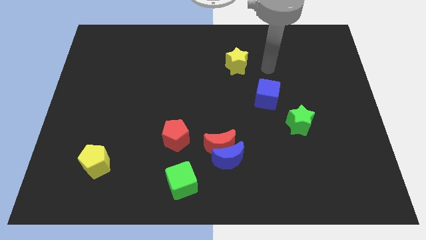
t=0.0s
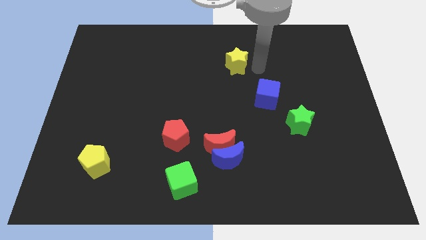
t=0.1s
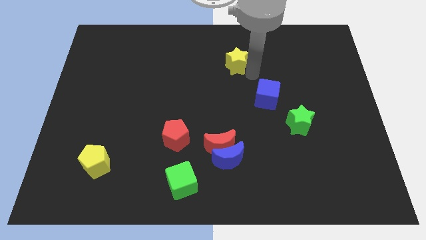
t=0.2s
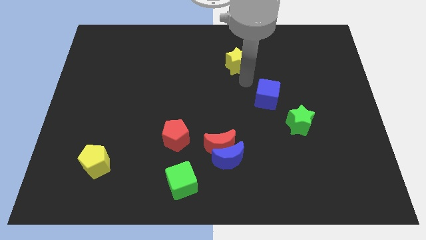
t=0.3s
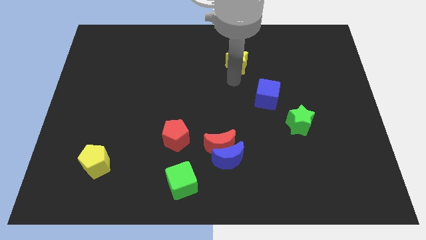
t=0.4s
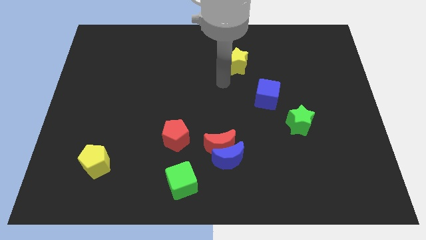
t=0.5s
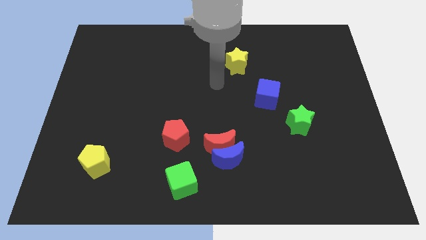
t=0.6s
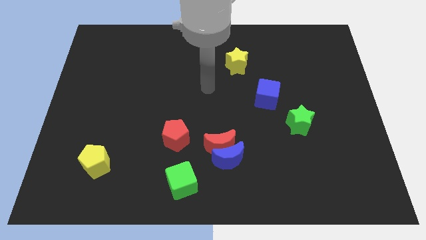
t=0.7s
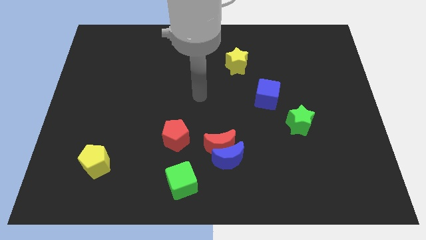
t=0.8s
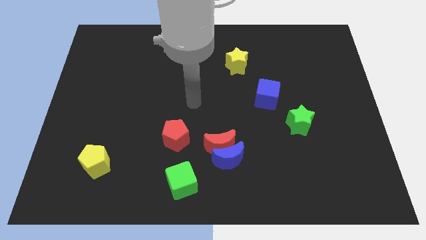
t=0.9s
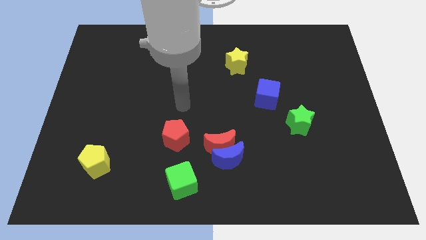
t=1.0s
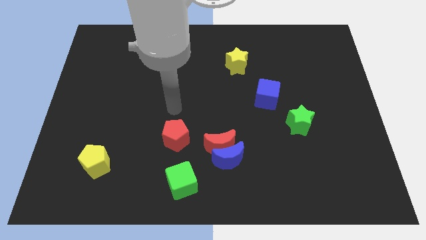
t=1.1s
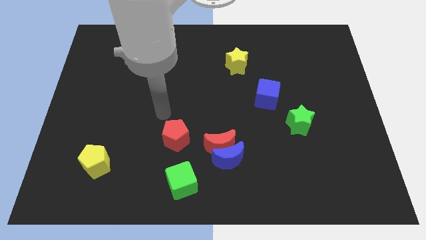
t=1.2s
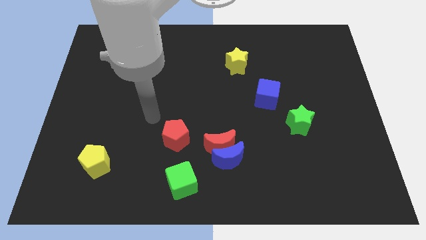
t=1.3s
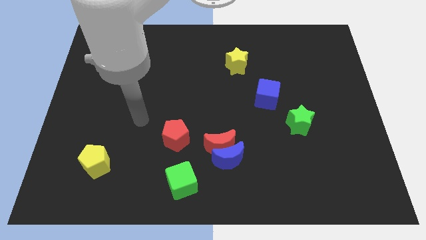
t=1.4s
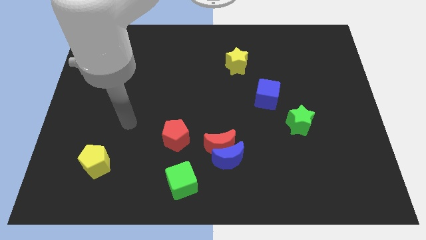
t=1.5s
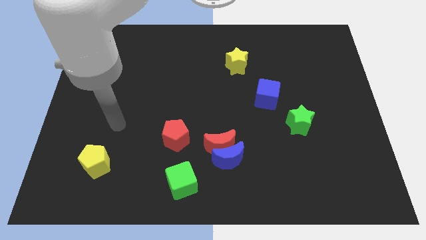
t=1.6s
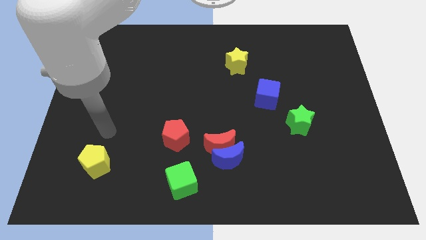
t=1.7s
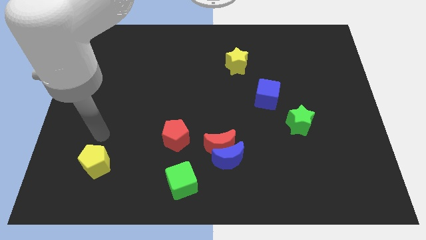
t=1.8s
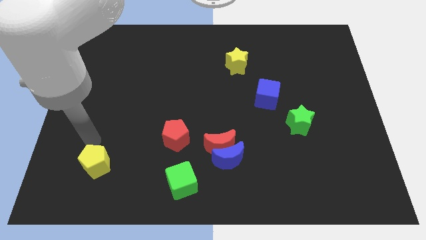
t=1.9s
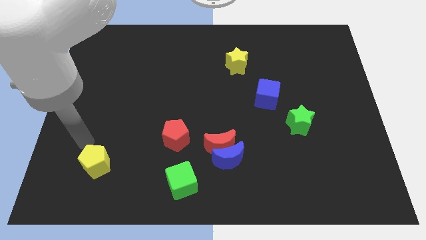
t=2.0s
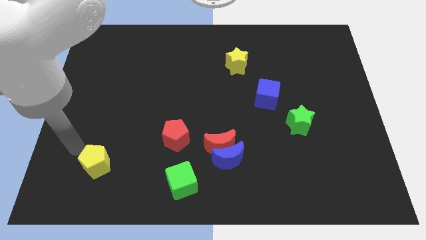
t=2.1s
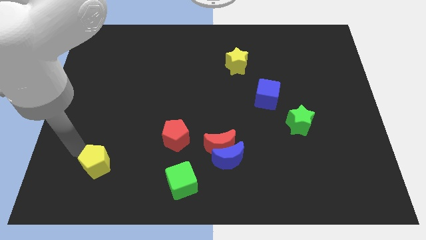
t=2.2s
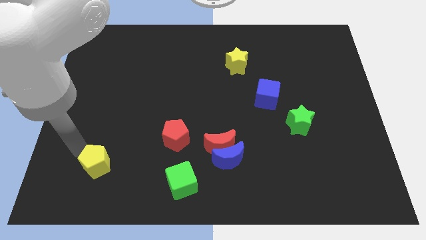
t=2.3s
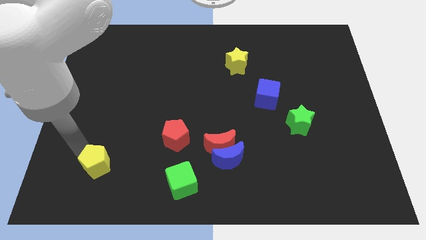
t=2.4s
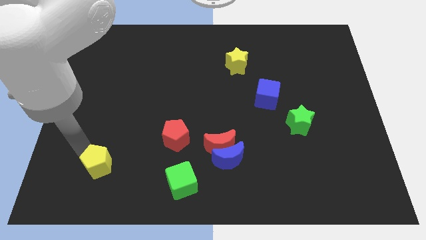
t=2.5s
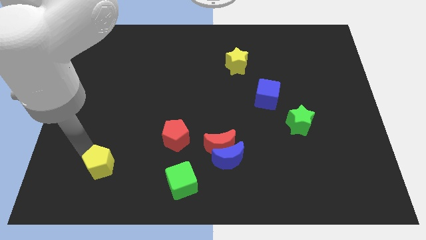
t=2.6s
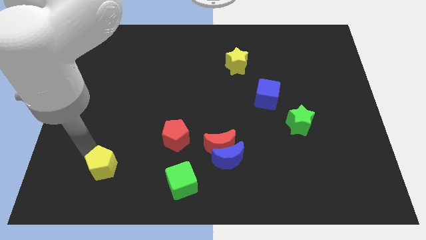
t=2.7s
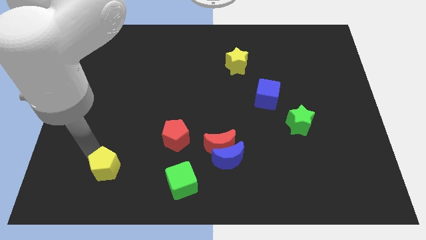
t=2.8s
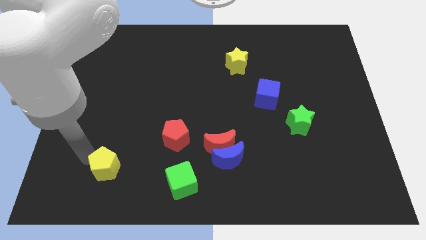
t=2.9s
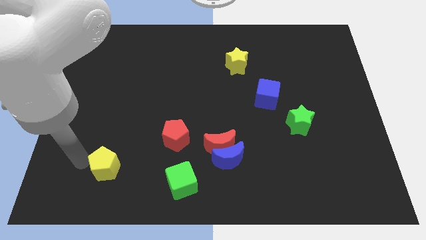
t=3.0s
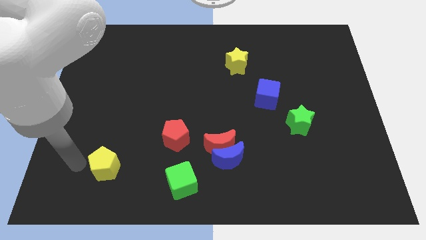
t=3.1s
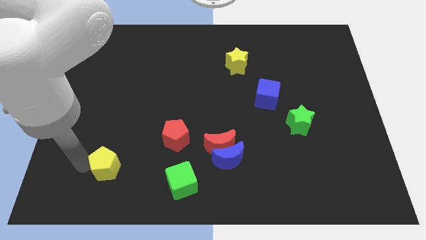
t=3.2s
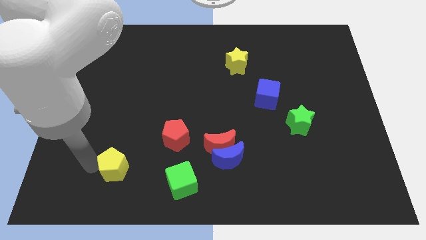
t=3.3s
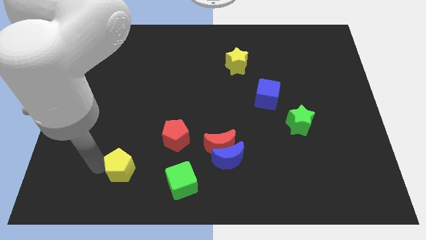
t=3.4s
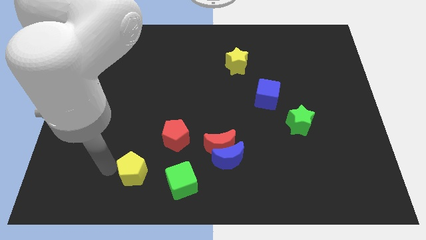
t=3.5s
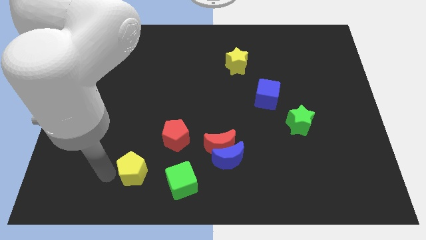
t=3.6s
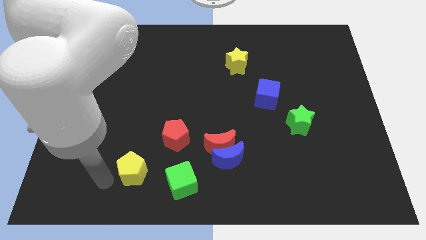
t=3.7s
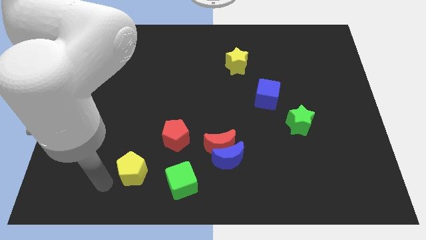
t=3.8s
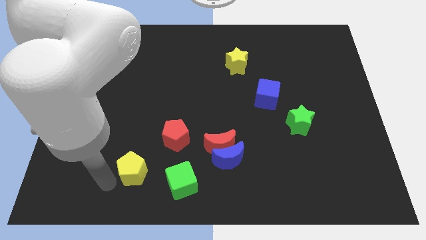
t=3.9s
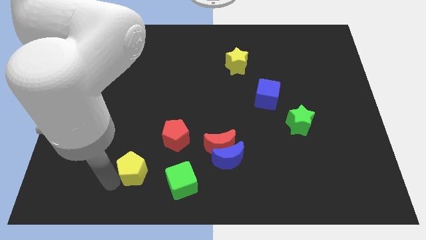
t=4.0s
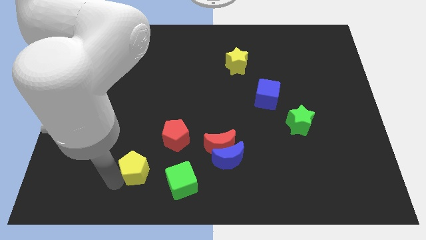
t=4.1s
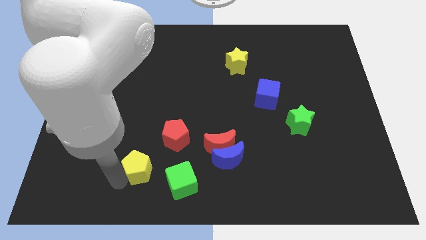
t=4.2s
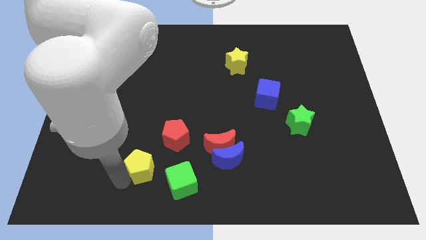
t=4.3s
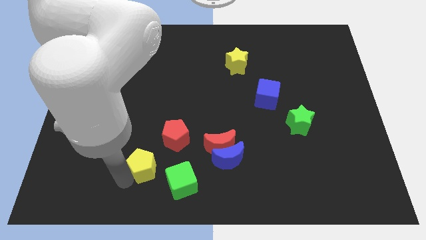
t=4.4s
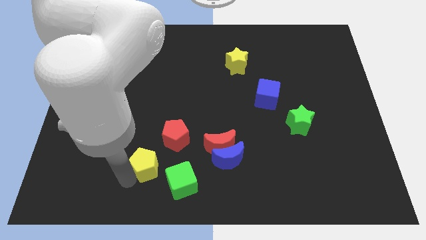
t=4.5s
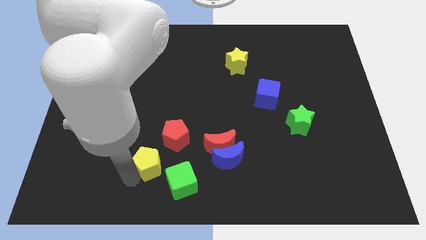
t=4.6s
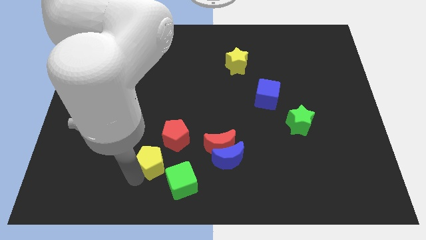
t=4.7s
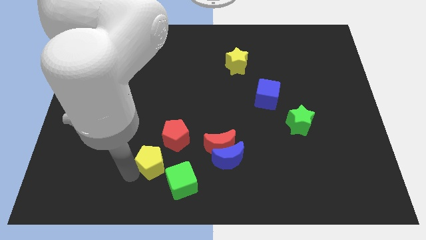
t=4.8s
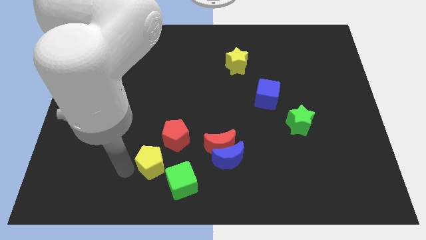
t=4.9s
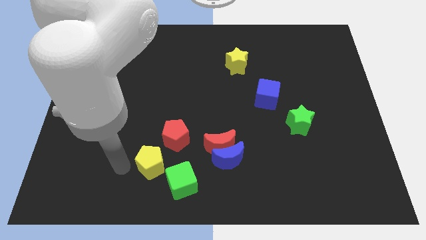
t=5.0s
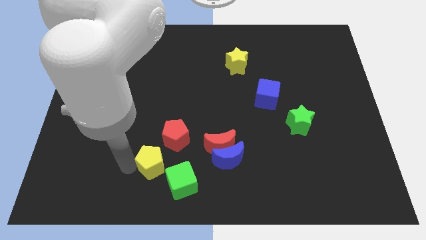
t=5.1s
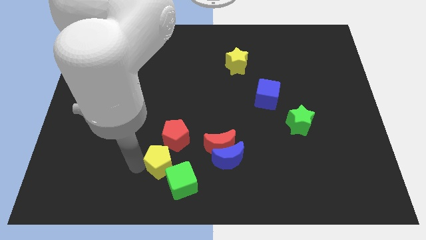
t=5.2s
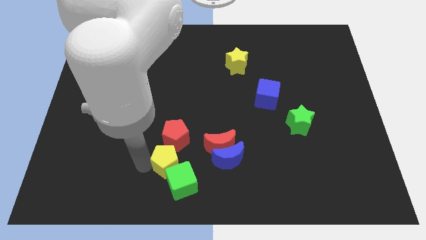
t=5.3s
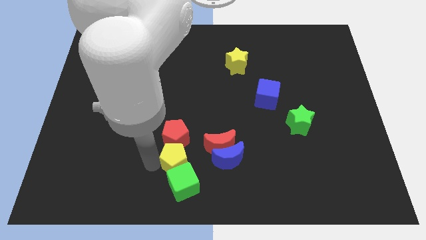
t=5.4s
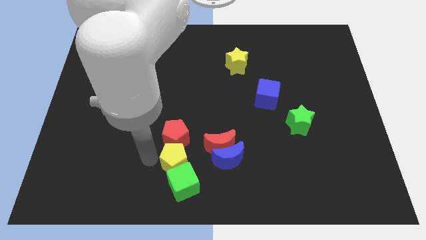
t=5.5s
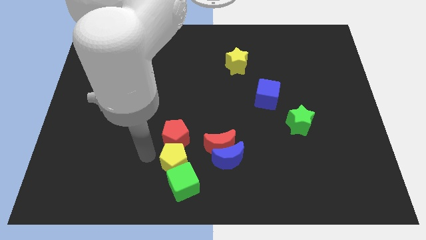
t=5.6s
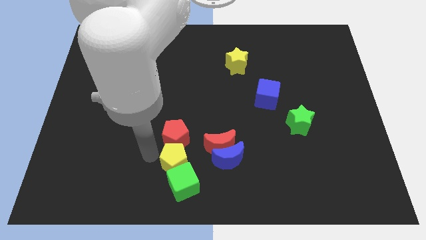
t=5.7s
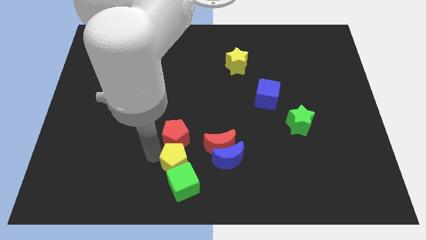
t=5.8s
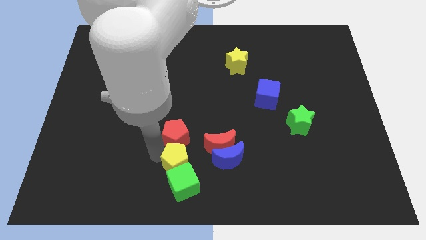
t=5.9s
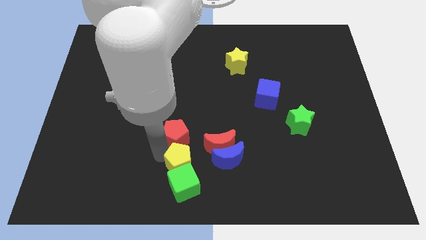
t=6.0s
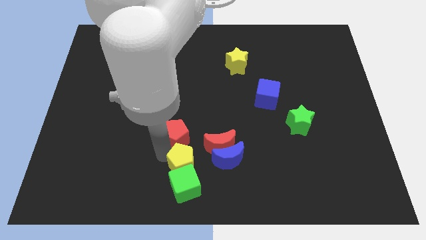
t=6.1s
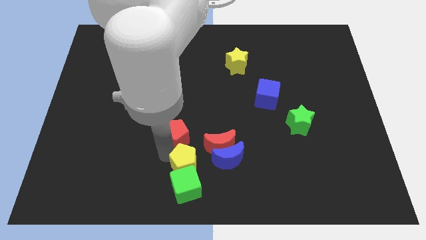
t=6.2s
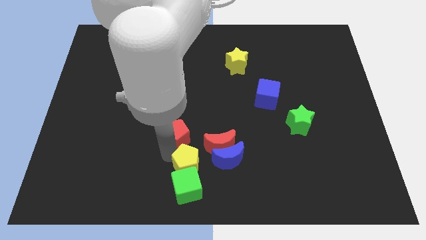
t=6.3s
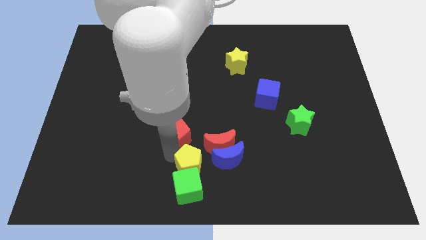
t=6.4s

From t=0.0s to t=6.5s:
push the yellow pentagon diagonally down and to the left of the blue moon

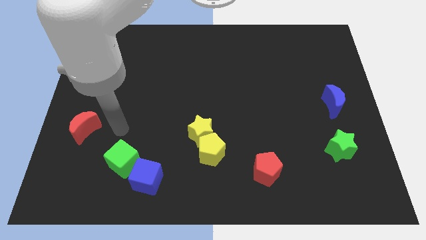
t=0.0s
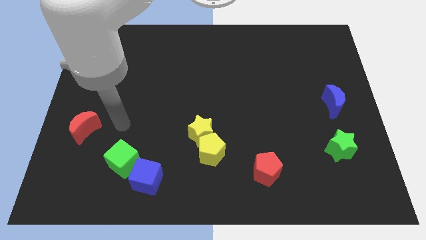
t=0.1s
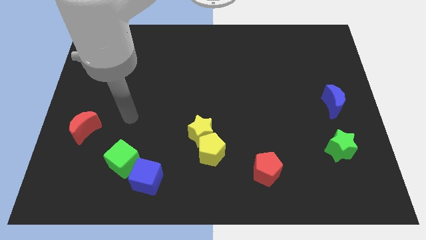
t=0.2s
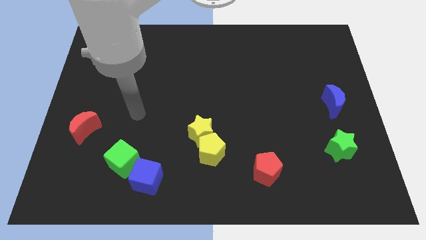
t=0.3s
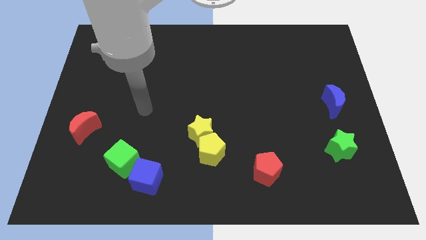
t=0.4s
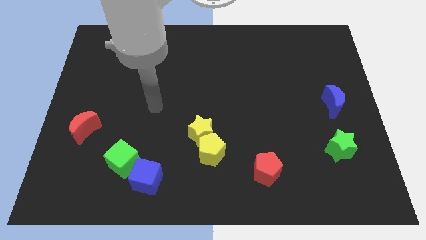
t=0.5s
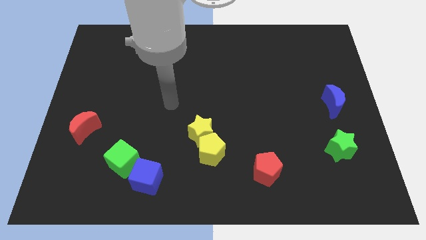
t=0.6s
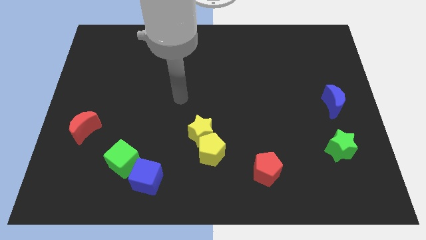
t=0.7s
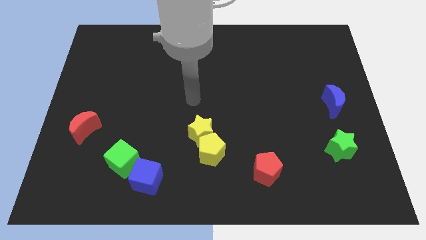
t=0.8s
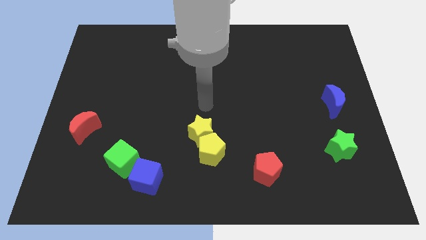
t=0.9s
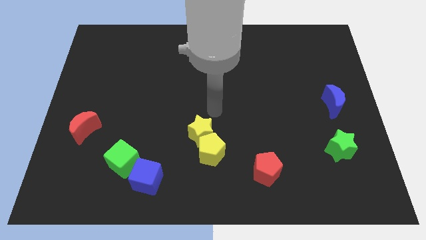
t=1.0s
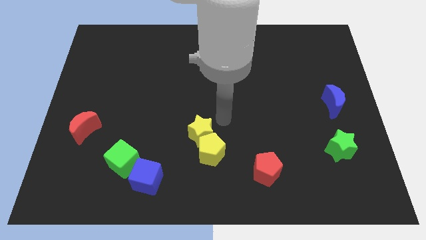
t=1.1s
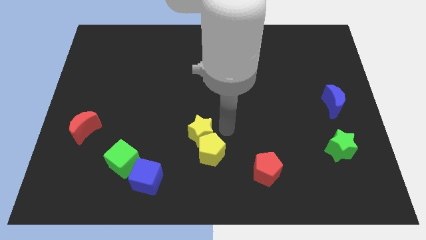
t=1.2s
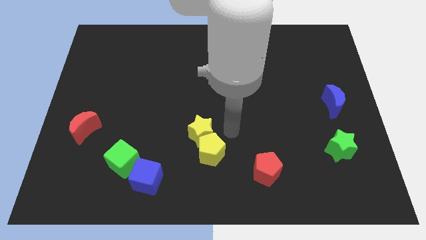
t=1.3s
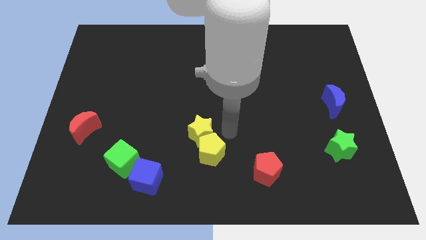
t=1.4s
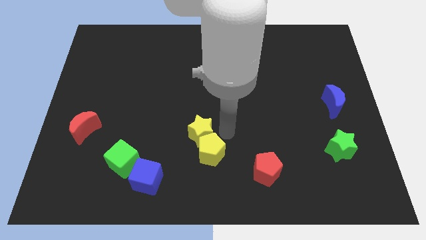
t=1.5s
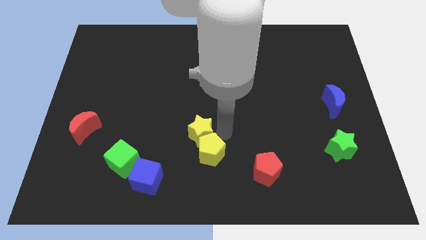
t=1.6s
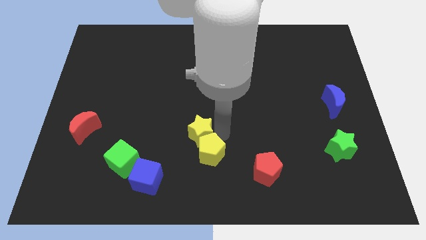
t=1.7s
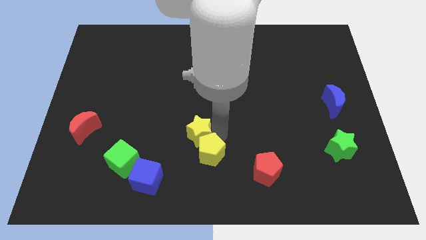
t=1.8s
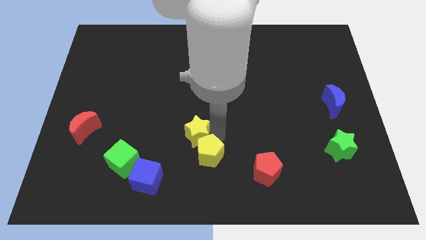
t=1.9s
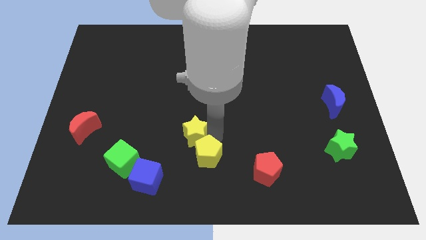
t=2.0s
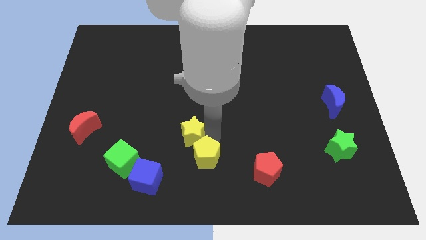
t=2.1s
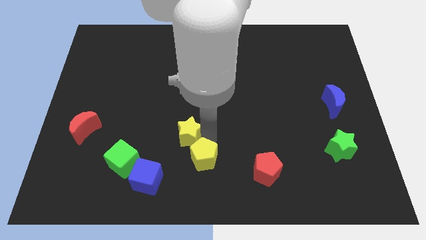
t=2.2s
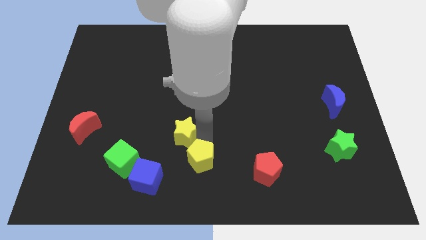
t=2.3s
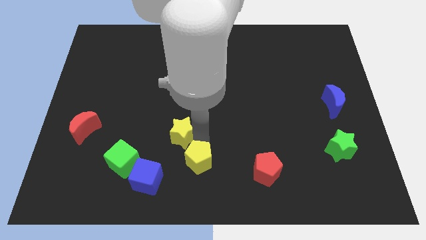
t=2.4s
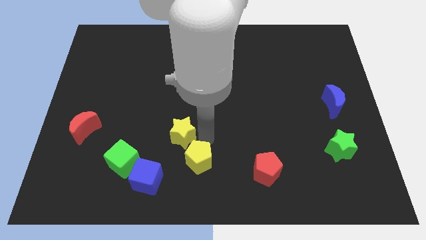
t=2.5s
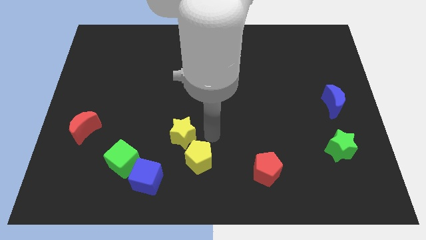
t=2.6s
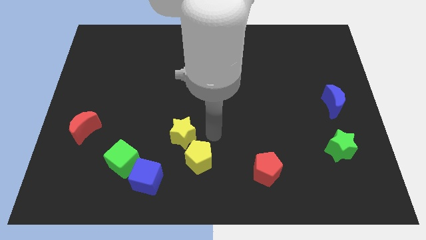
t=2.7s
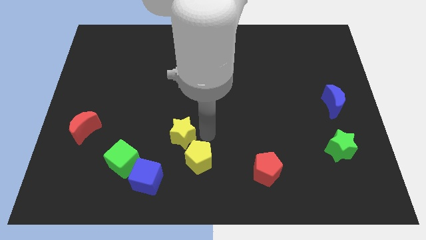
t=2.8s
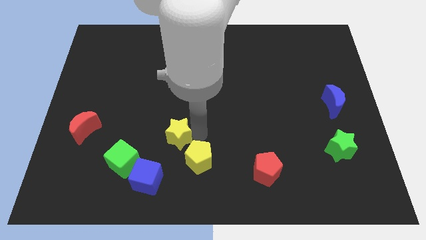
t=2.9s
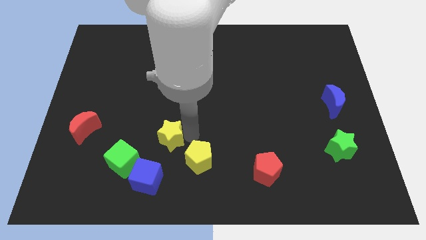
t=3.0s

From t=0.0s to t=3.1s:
push the yellow star to the top side of the blue cube
